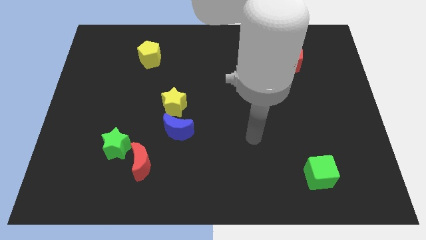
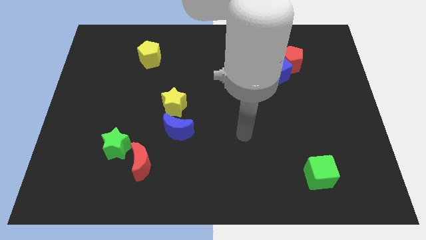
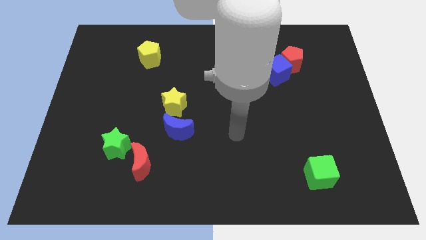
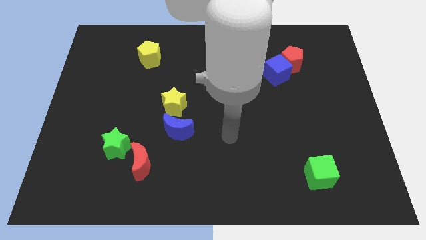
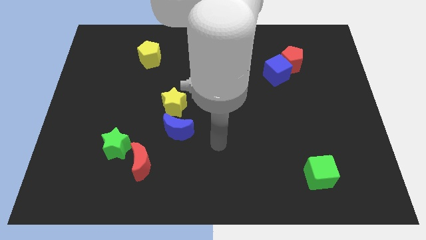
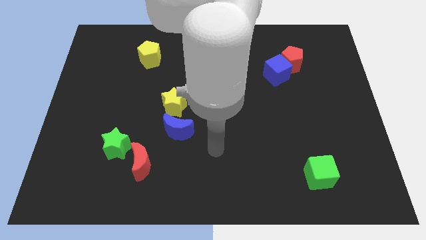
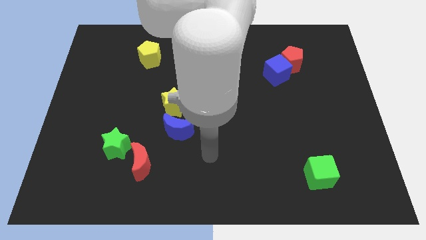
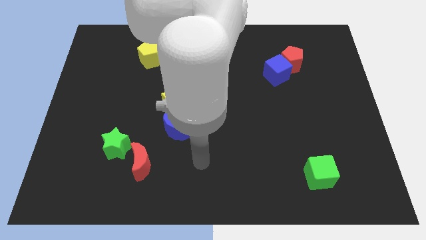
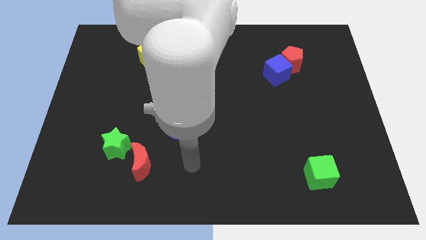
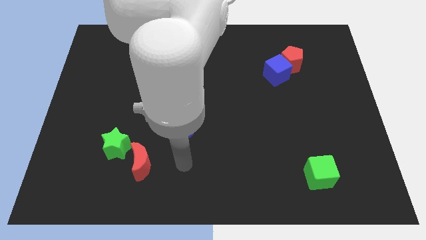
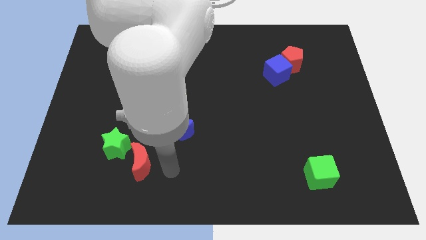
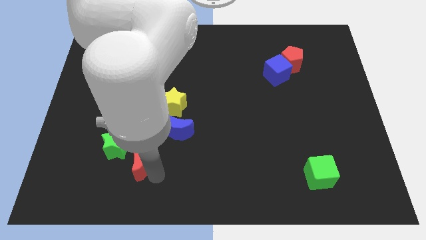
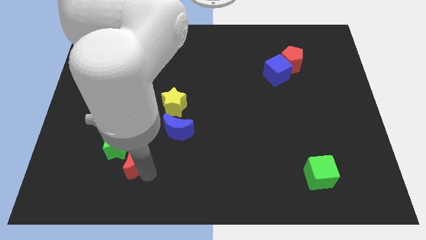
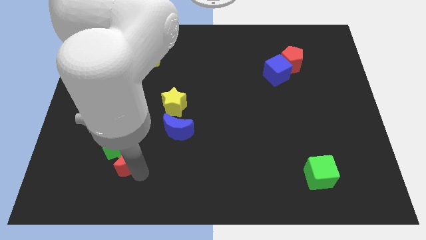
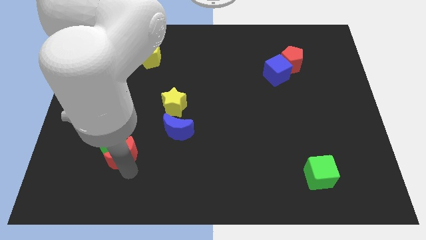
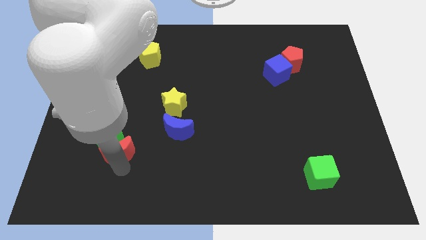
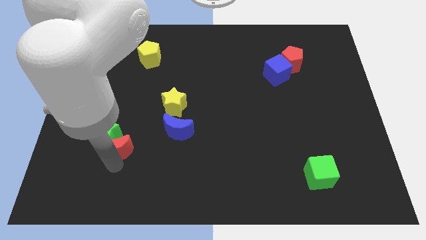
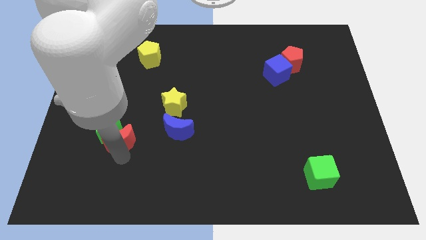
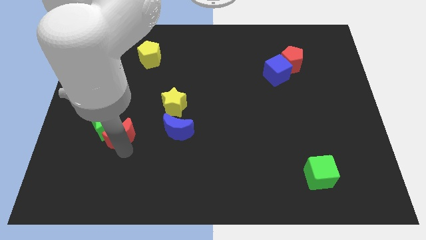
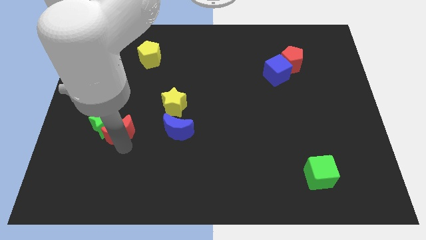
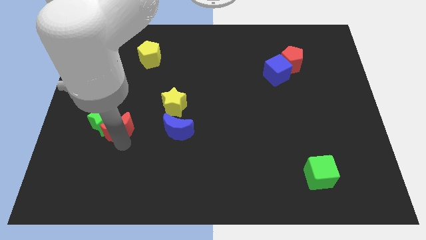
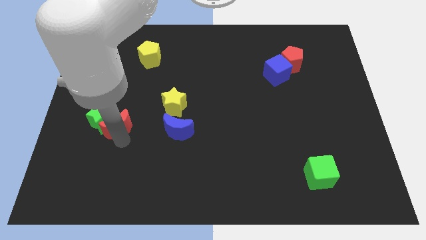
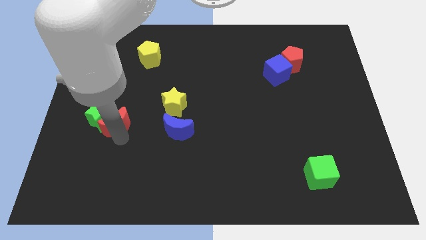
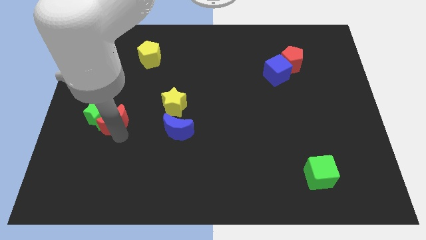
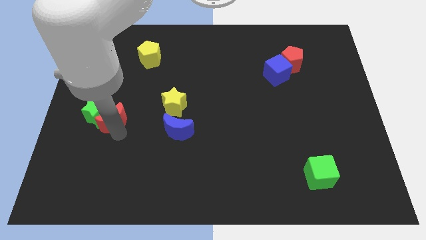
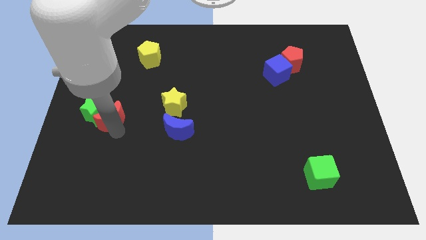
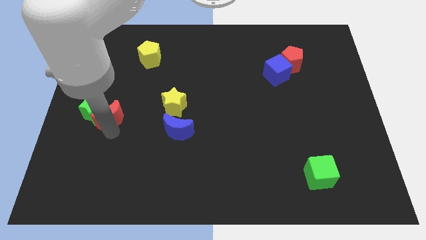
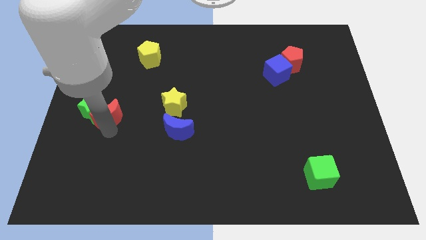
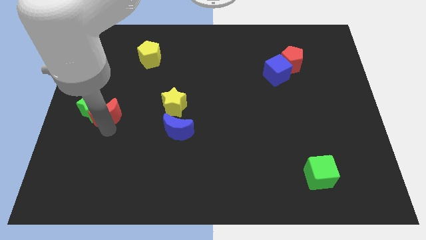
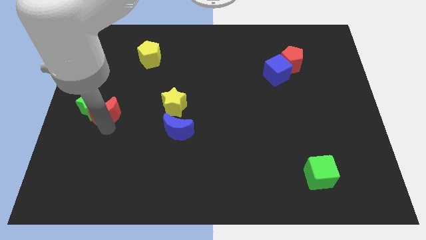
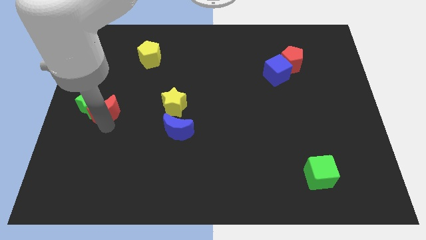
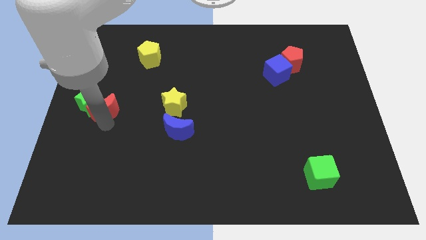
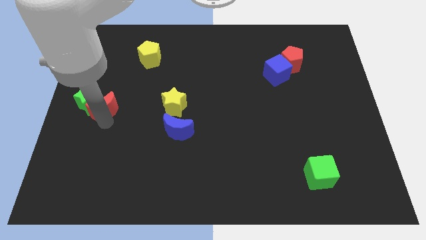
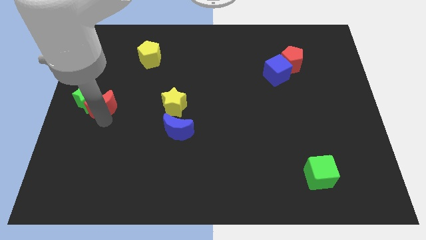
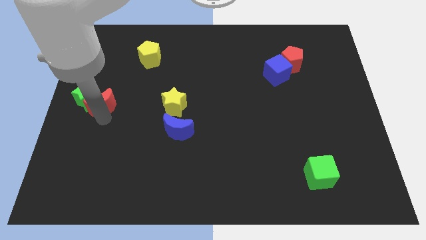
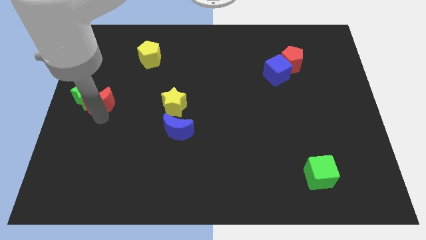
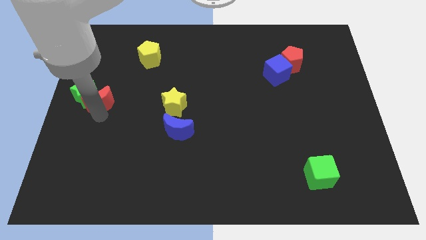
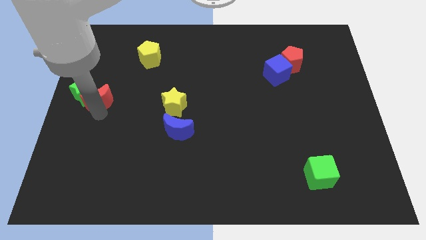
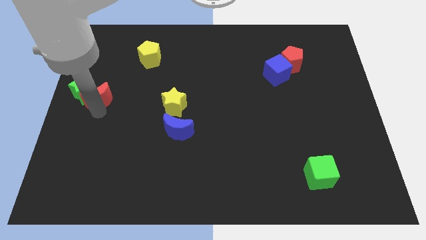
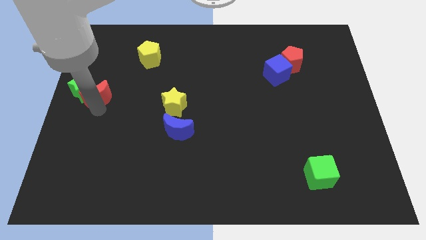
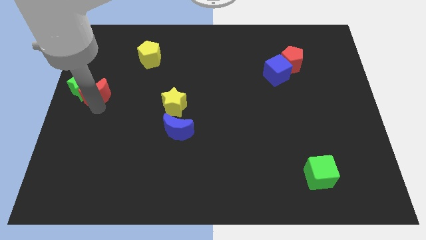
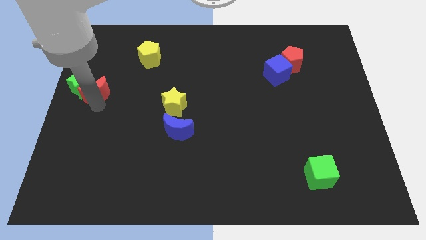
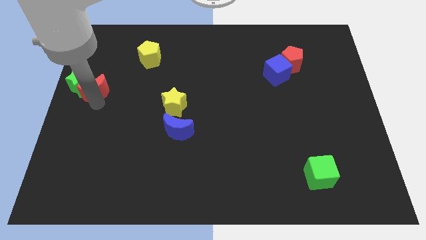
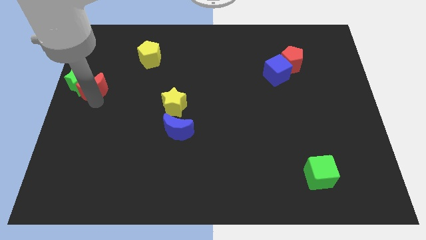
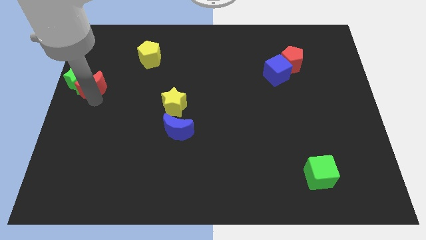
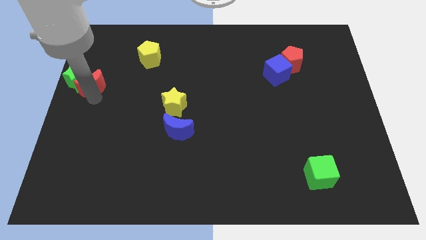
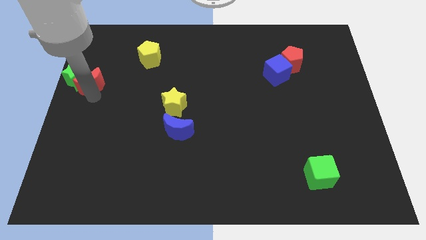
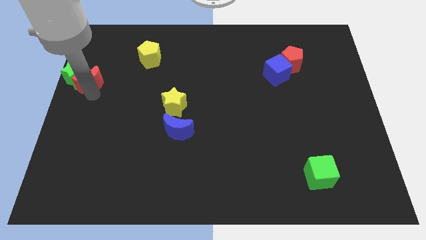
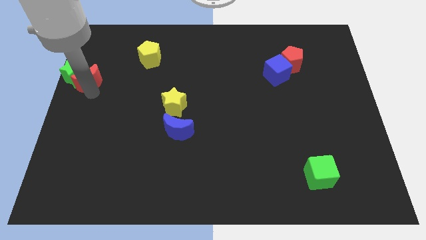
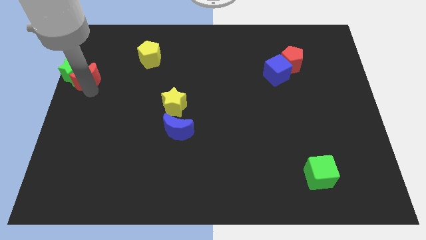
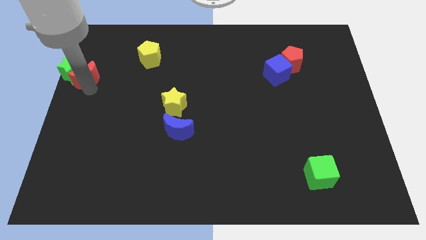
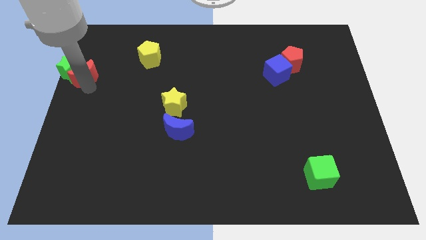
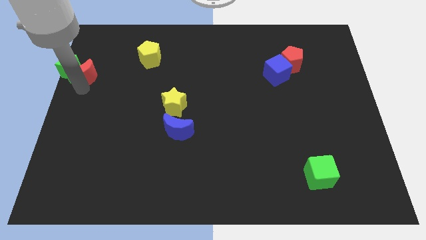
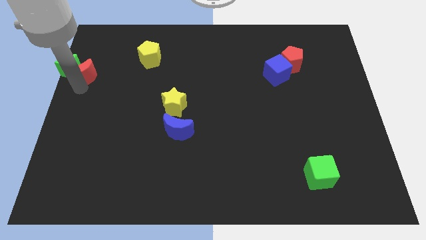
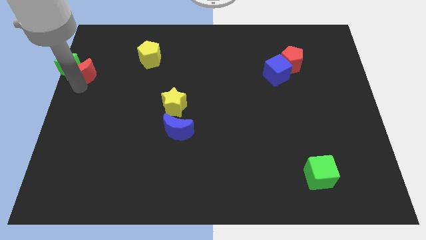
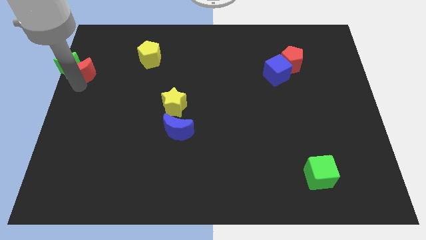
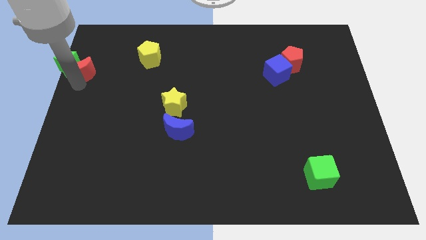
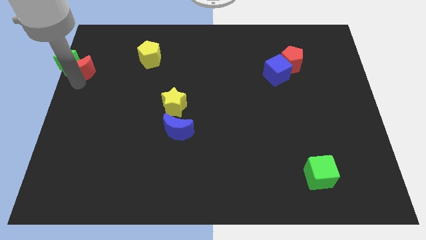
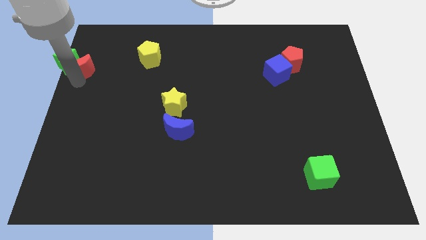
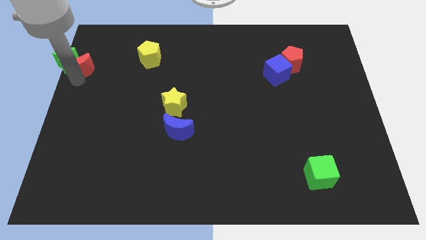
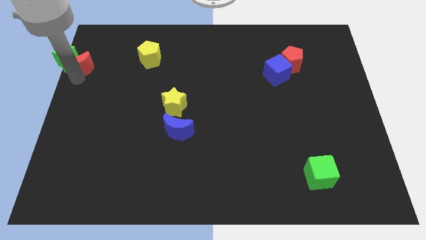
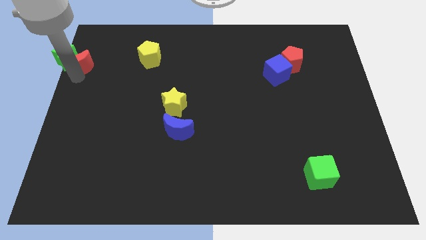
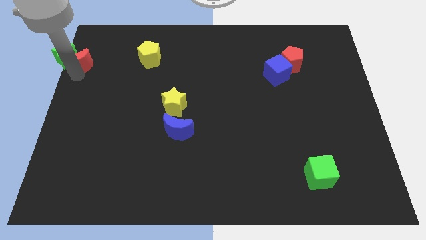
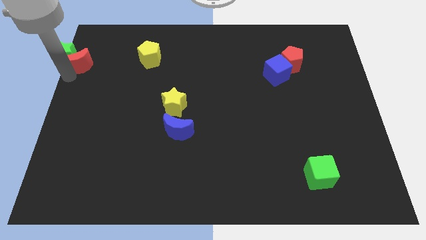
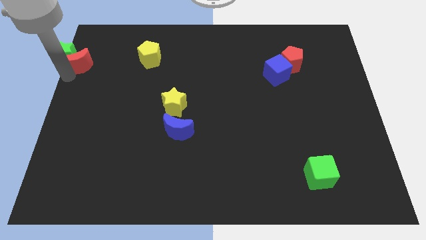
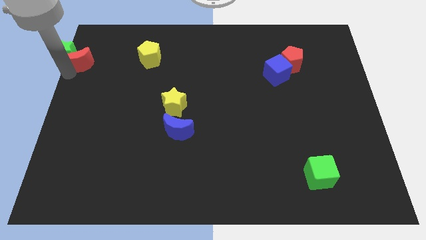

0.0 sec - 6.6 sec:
push the green star to the top left corner

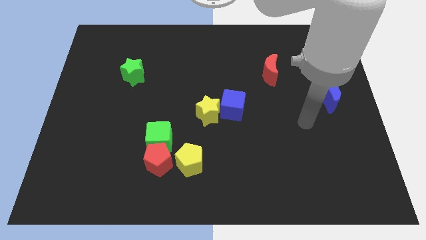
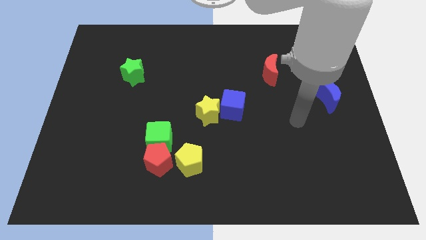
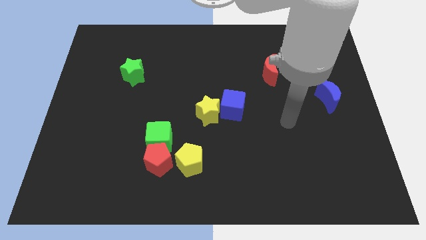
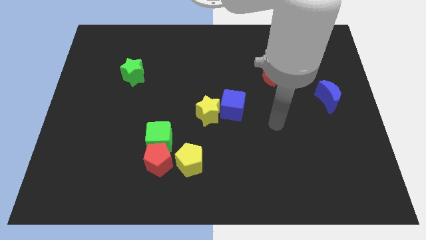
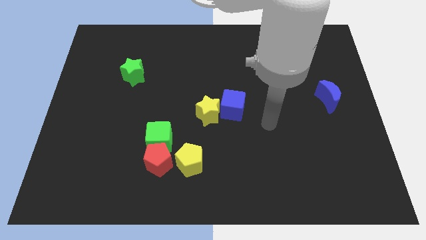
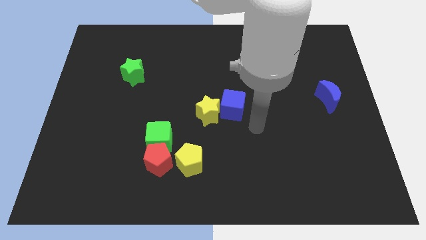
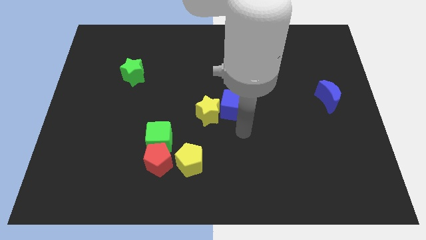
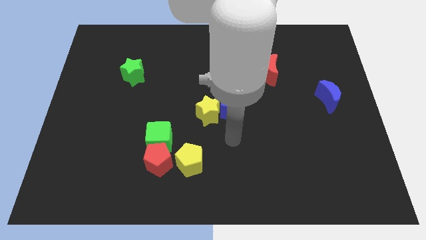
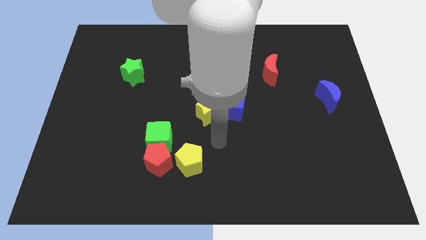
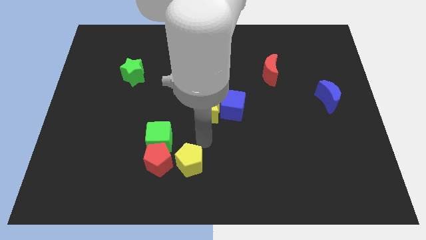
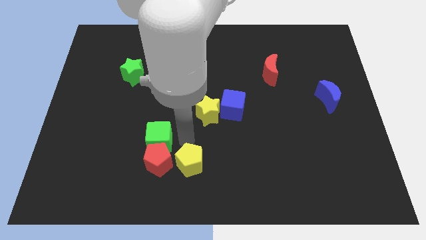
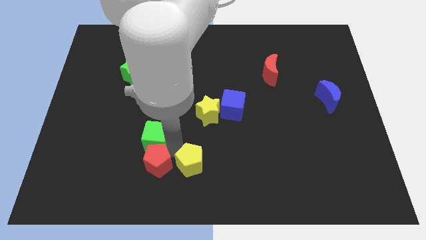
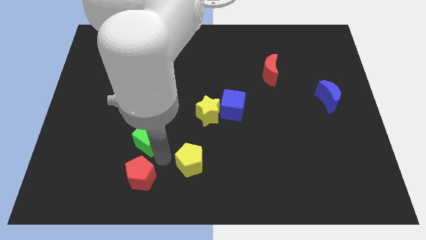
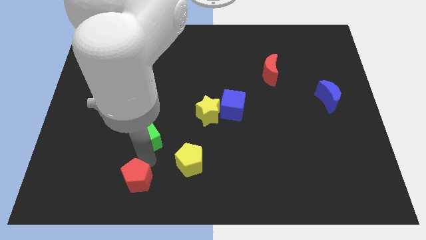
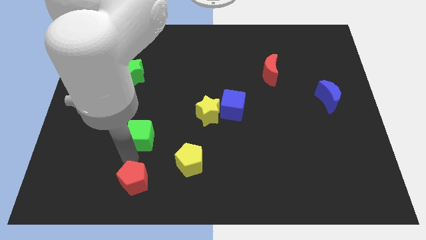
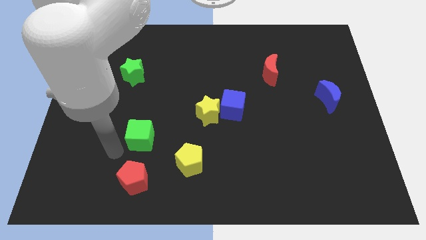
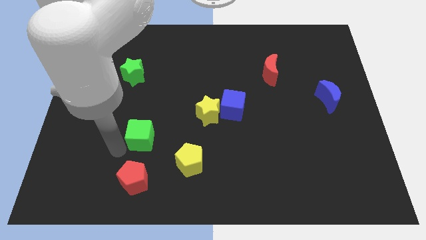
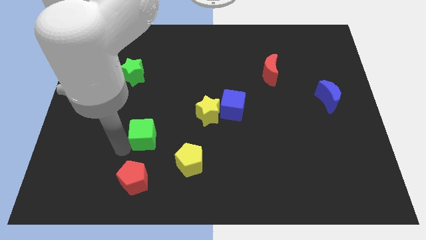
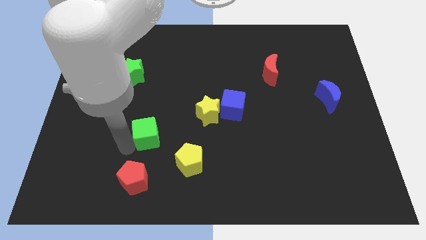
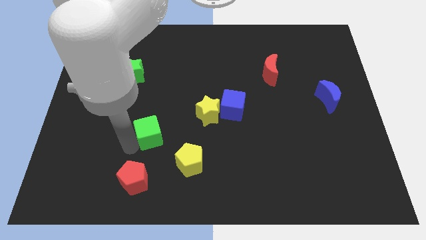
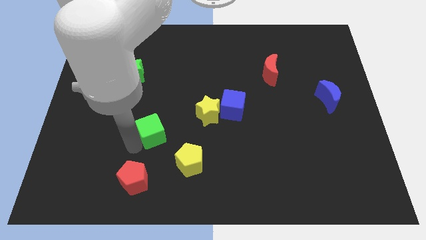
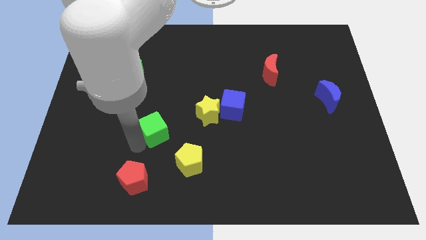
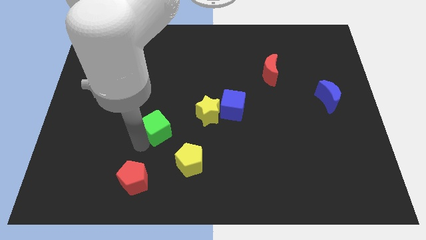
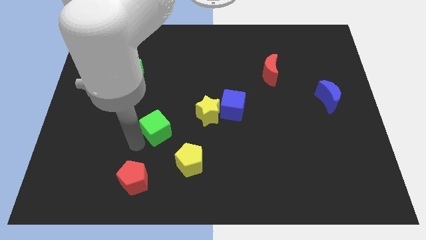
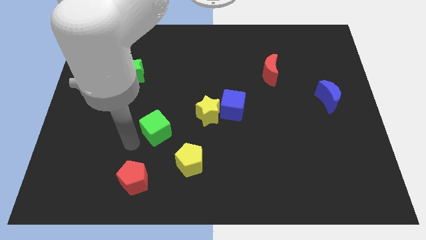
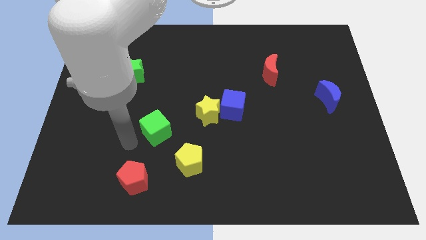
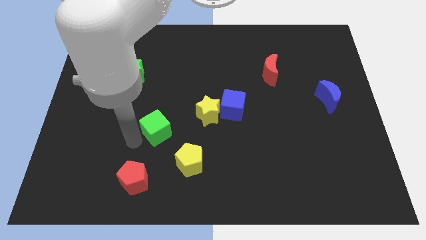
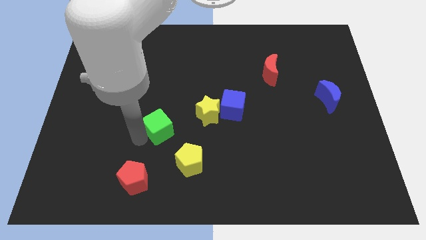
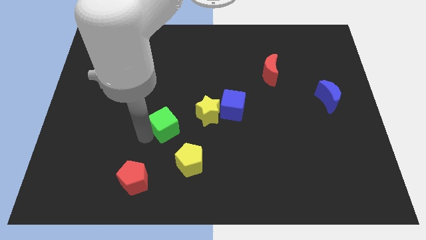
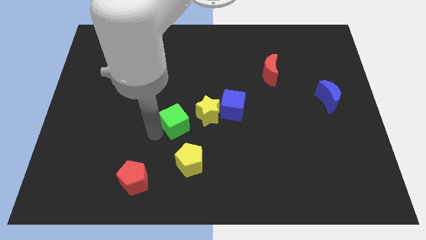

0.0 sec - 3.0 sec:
slide the green cube to the center of the board
